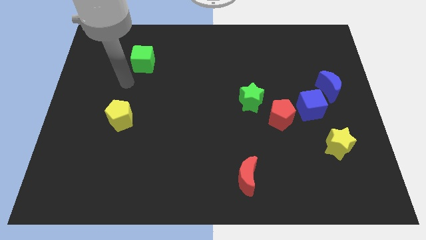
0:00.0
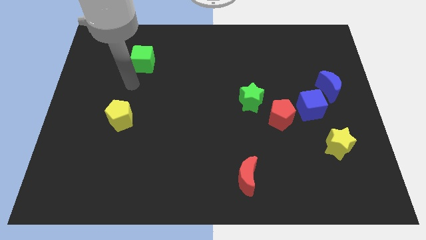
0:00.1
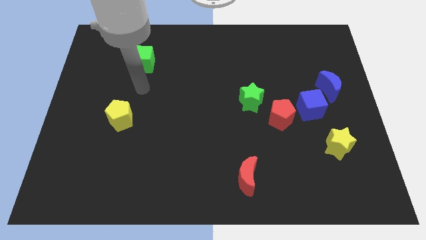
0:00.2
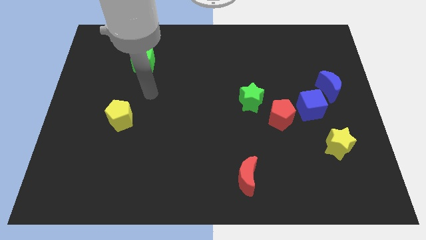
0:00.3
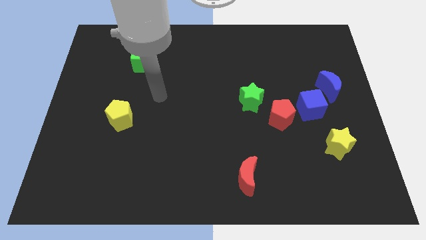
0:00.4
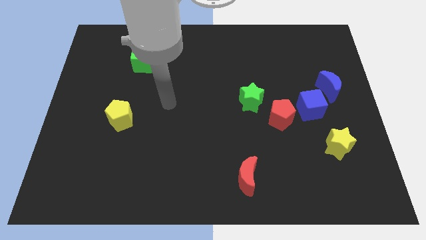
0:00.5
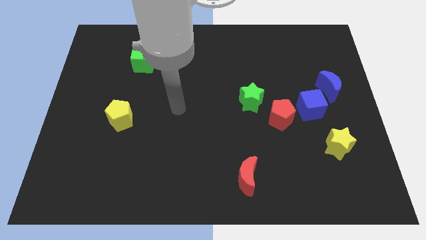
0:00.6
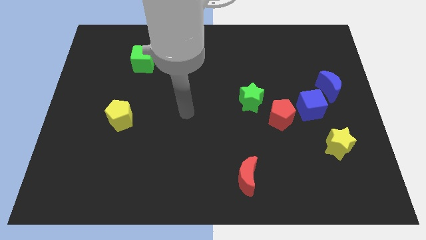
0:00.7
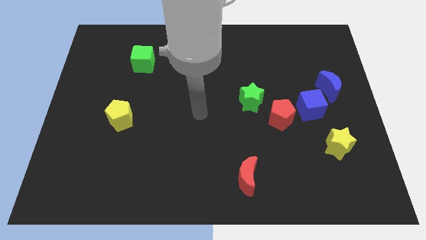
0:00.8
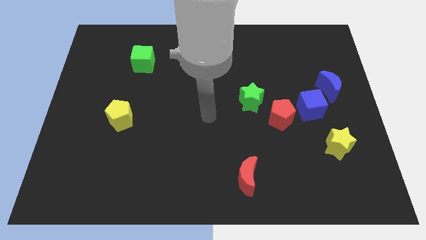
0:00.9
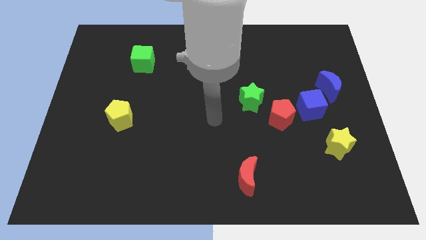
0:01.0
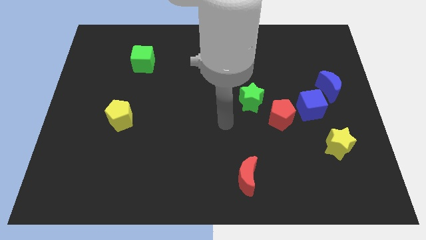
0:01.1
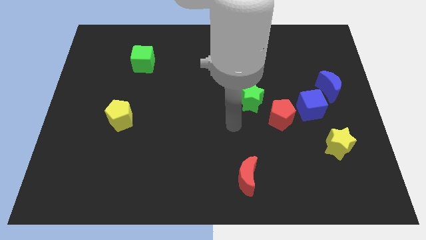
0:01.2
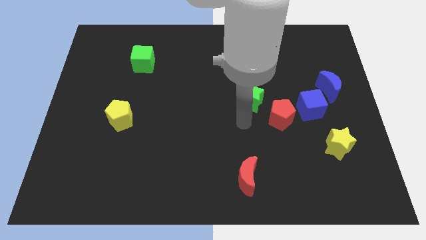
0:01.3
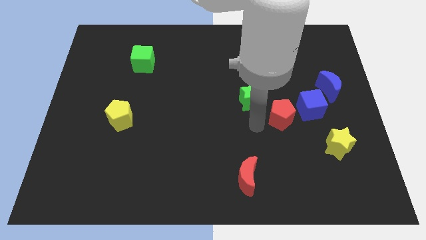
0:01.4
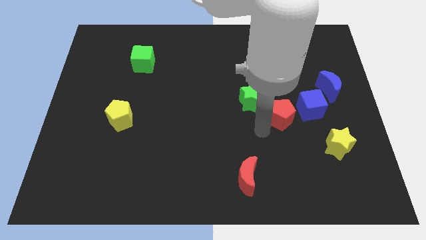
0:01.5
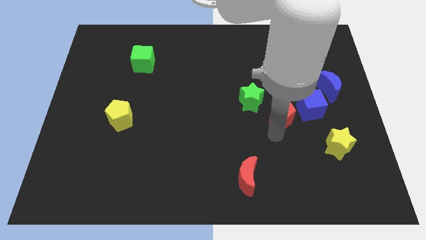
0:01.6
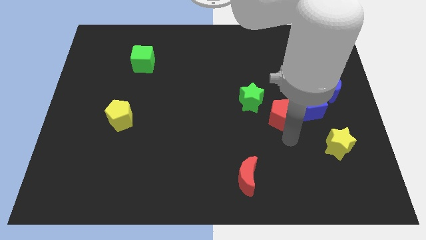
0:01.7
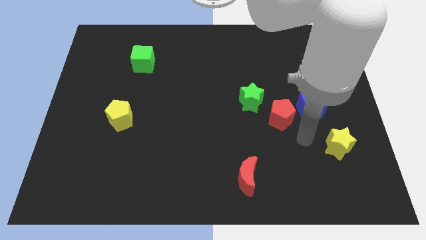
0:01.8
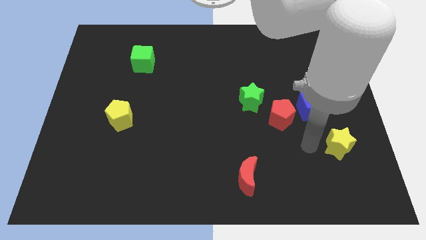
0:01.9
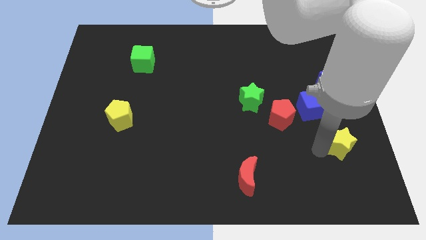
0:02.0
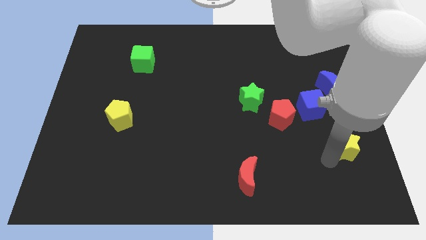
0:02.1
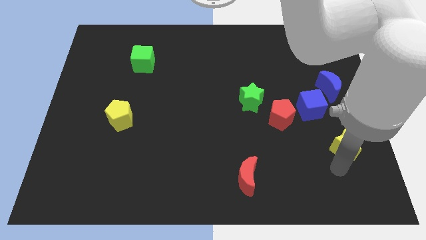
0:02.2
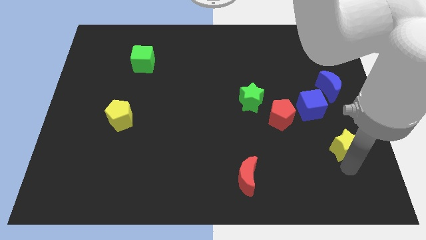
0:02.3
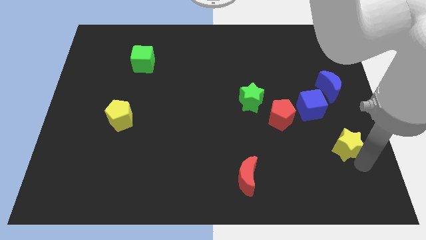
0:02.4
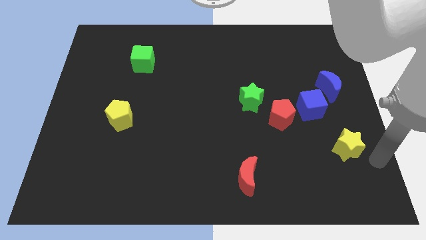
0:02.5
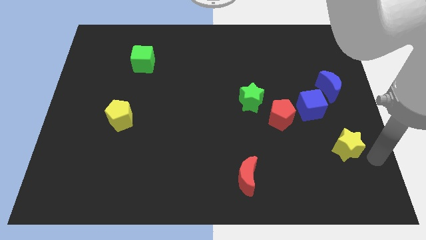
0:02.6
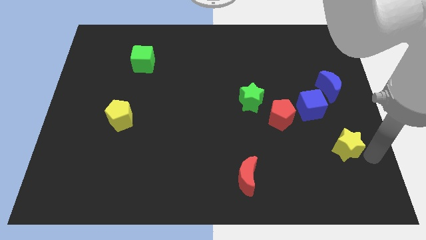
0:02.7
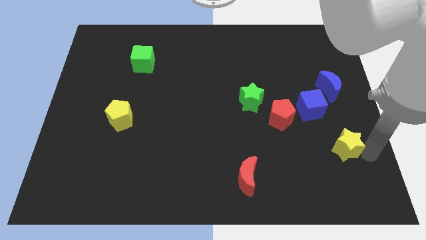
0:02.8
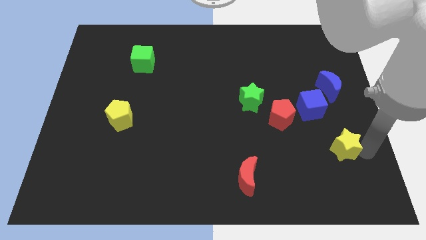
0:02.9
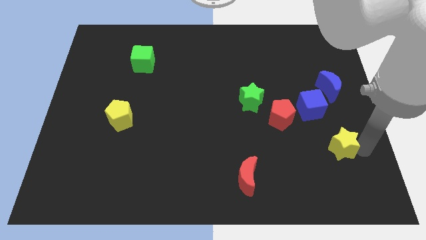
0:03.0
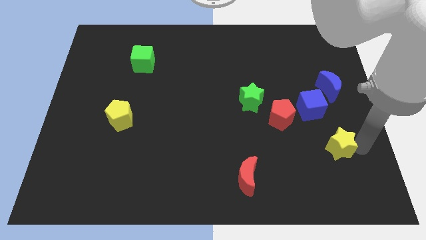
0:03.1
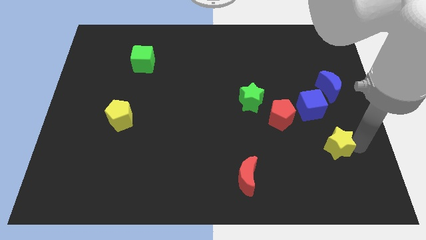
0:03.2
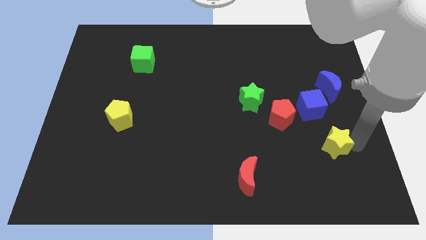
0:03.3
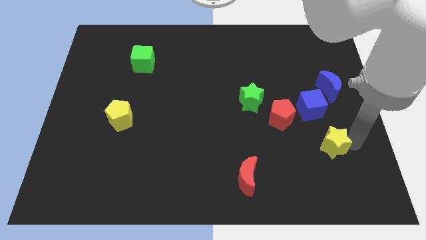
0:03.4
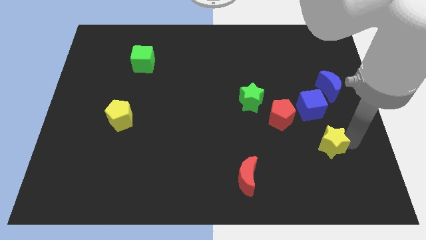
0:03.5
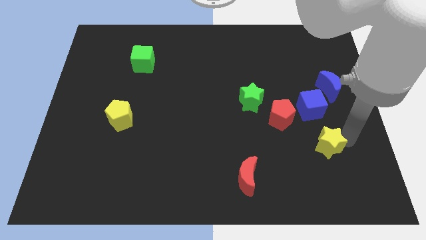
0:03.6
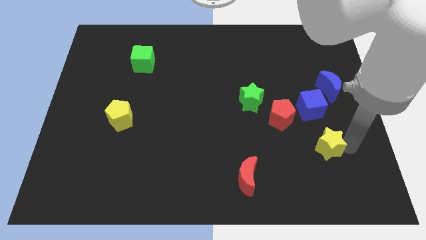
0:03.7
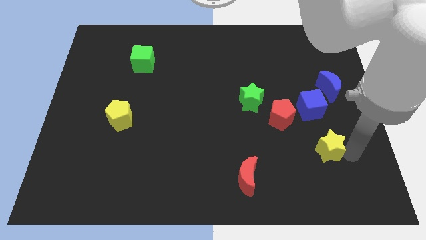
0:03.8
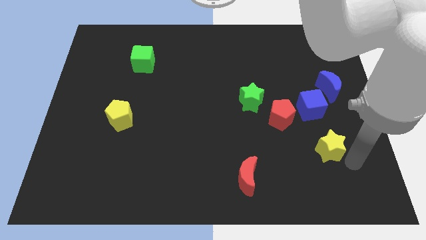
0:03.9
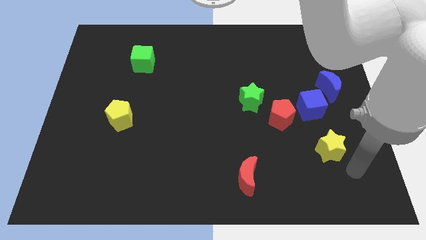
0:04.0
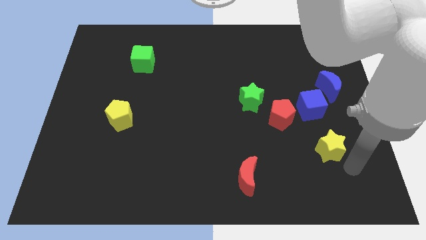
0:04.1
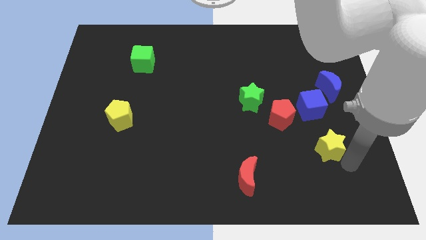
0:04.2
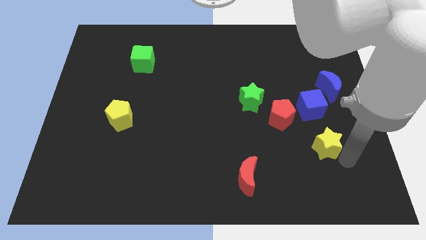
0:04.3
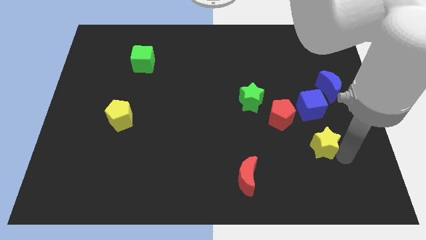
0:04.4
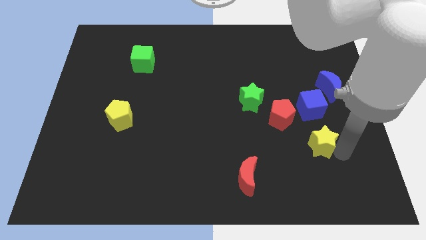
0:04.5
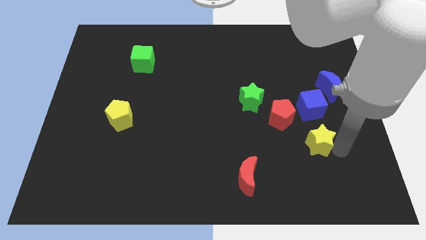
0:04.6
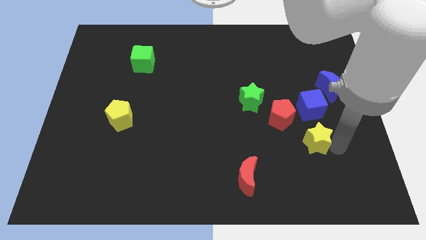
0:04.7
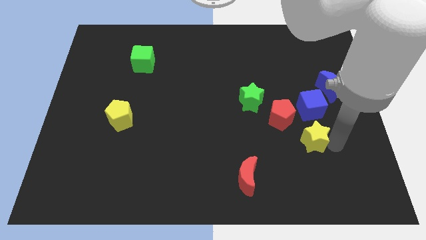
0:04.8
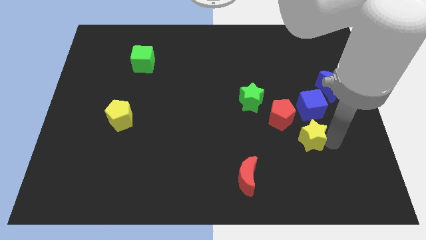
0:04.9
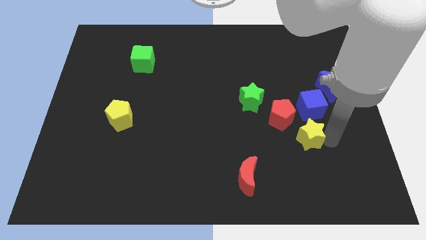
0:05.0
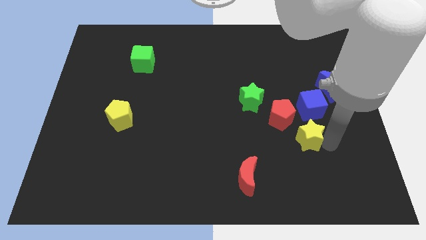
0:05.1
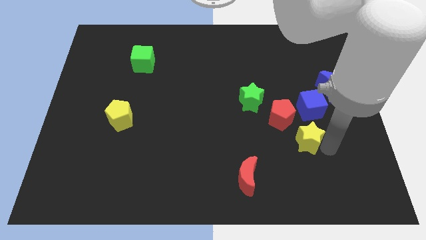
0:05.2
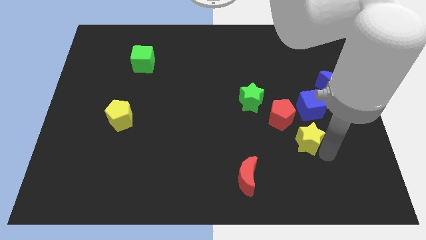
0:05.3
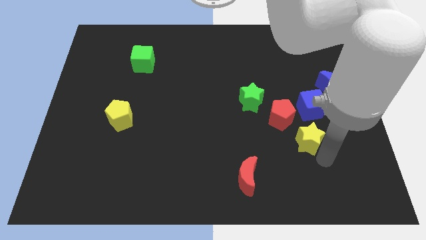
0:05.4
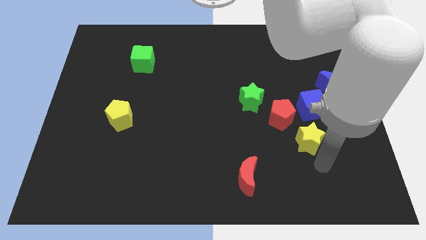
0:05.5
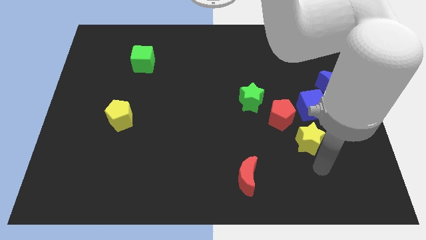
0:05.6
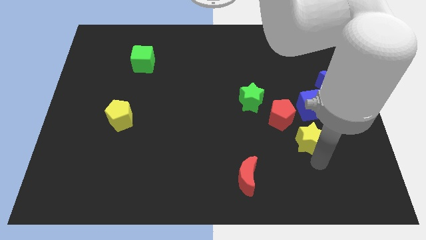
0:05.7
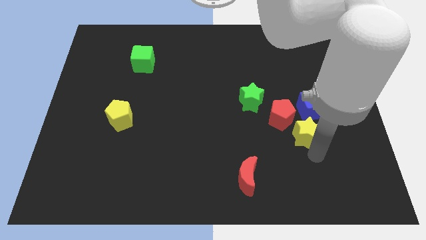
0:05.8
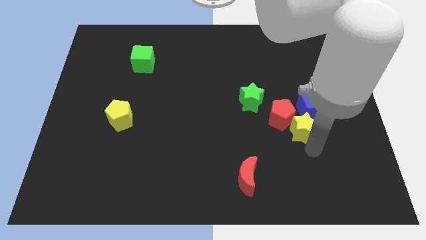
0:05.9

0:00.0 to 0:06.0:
slightly move the yellow star upwards and then to the left

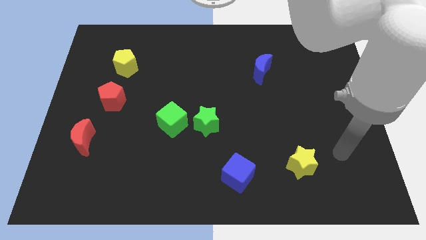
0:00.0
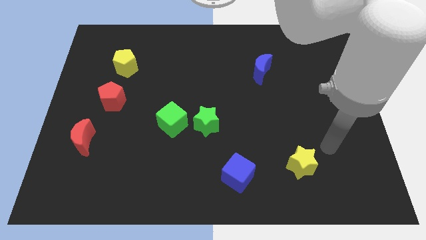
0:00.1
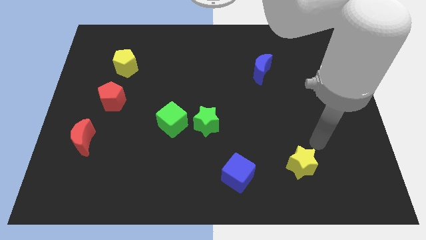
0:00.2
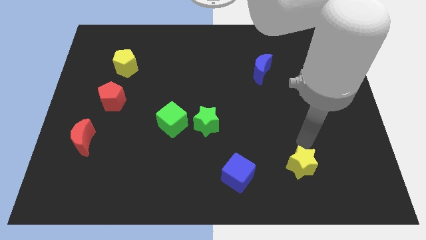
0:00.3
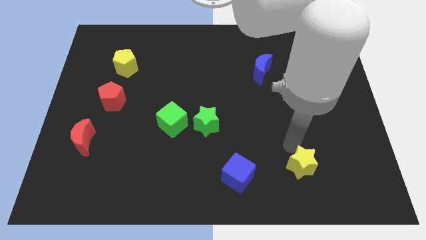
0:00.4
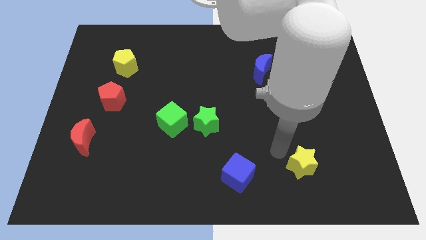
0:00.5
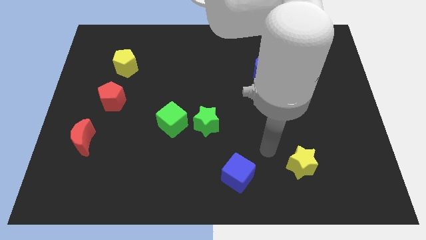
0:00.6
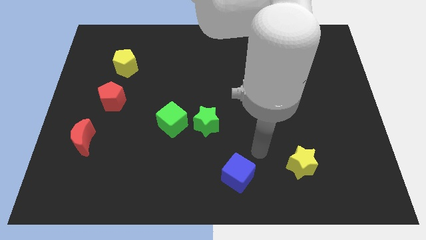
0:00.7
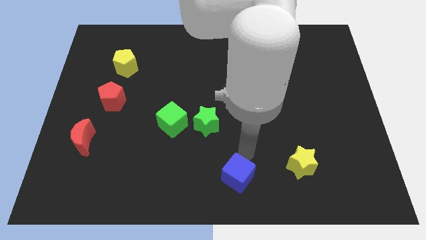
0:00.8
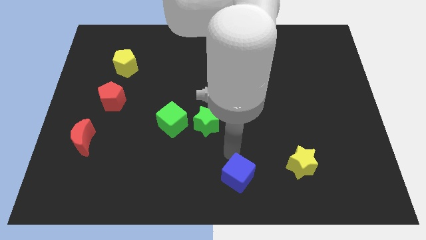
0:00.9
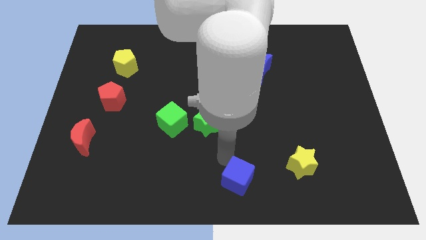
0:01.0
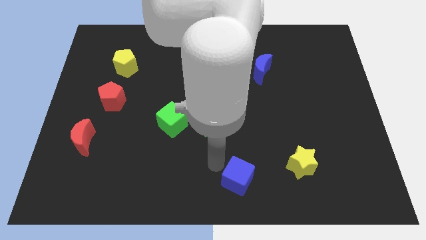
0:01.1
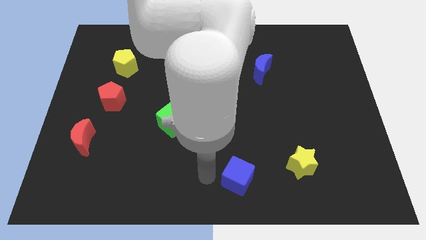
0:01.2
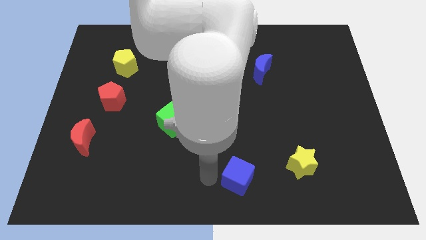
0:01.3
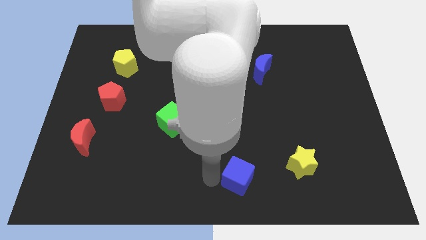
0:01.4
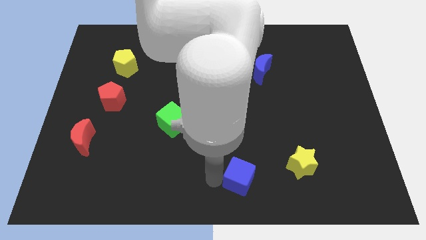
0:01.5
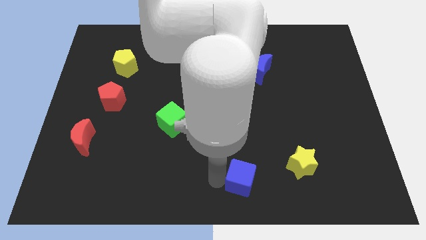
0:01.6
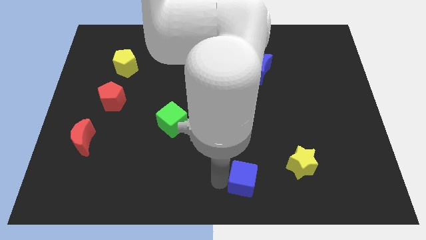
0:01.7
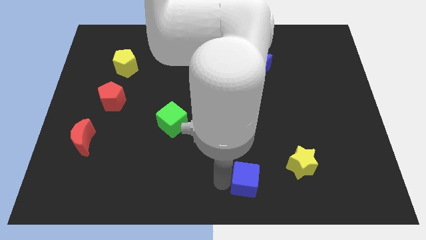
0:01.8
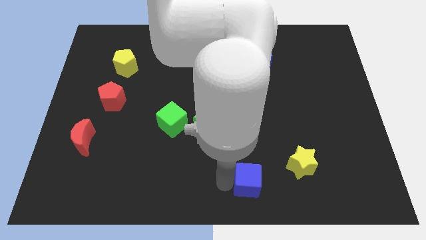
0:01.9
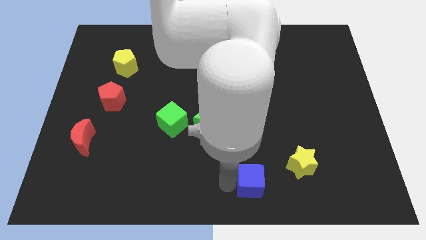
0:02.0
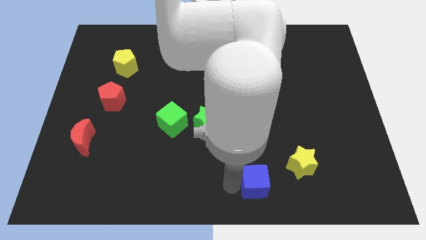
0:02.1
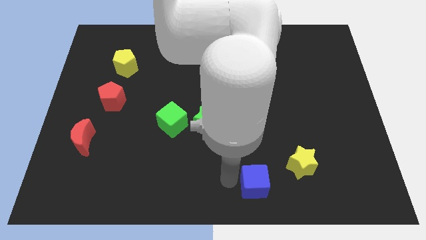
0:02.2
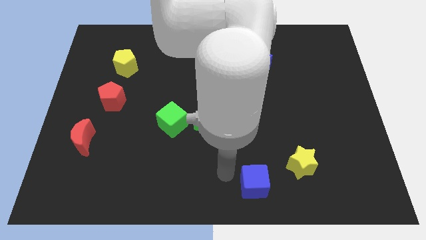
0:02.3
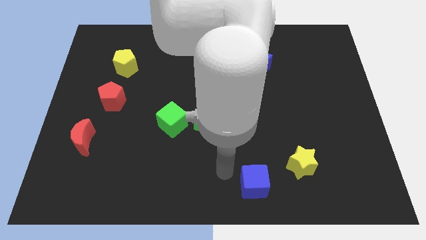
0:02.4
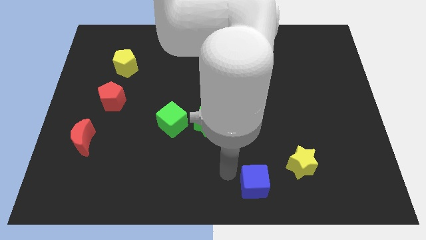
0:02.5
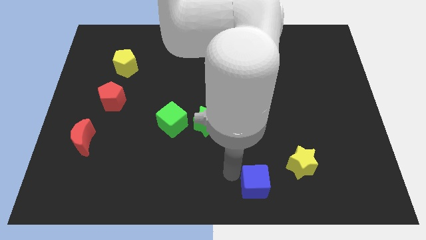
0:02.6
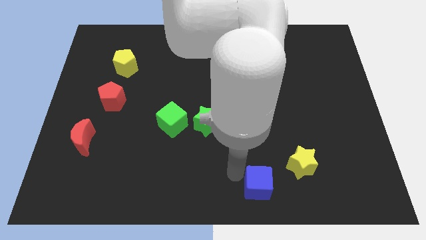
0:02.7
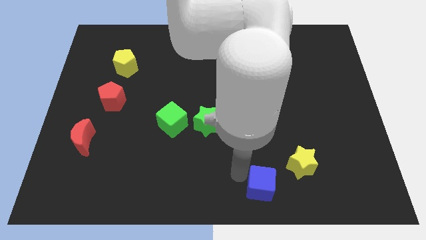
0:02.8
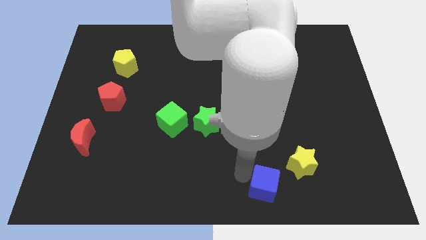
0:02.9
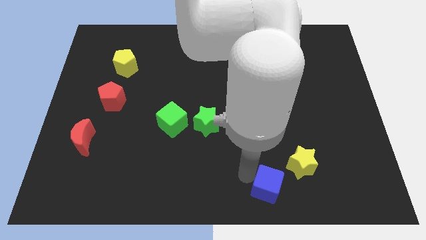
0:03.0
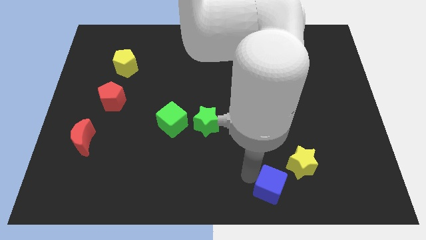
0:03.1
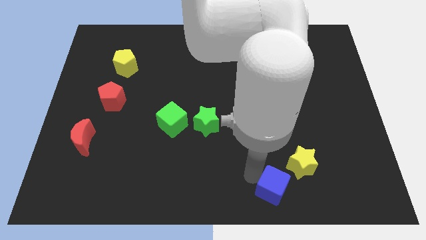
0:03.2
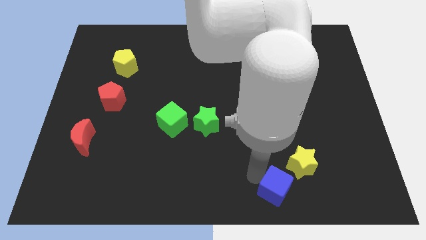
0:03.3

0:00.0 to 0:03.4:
slightly slide the blue cube to the right
